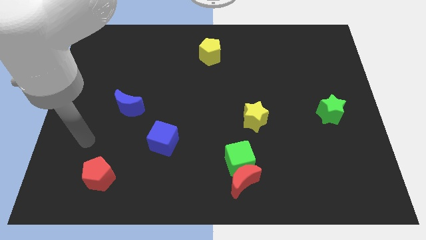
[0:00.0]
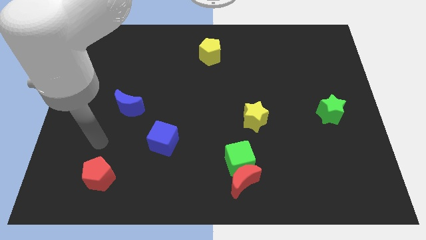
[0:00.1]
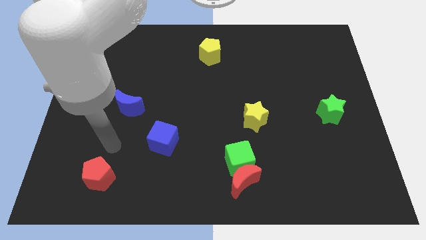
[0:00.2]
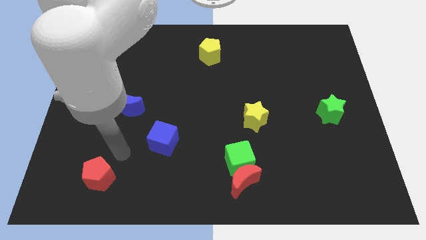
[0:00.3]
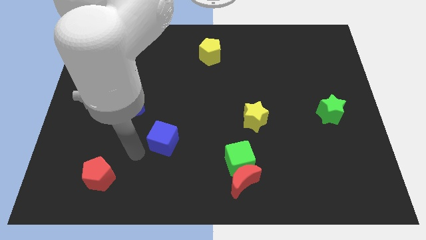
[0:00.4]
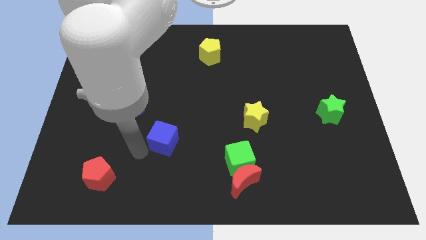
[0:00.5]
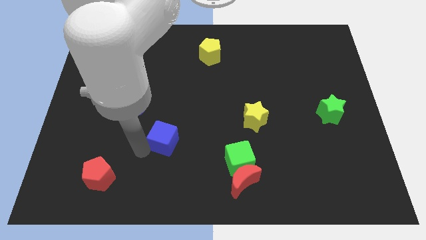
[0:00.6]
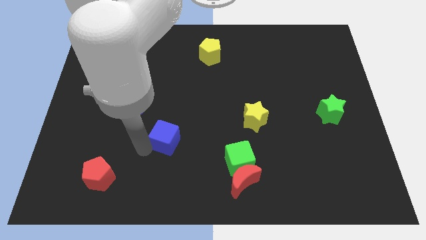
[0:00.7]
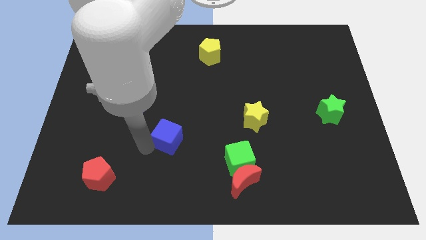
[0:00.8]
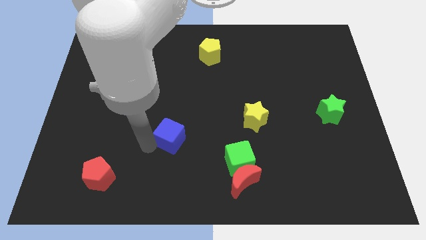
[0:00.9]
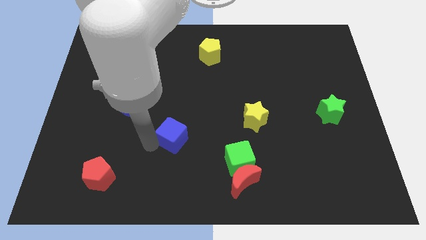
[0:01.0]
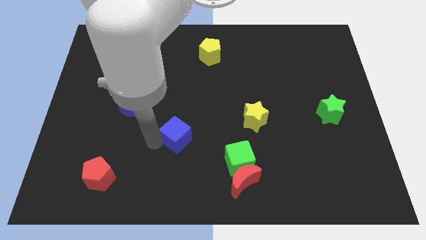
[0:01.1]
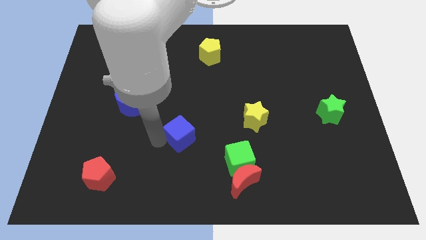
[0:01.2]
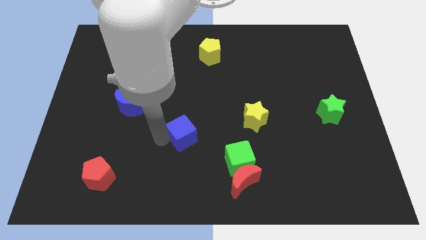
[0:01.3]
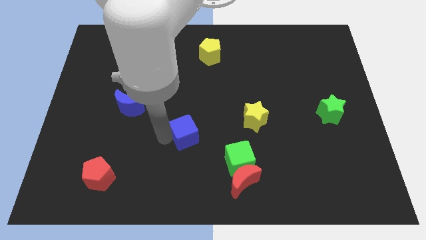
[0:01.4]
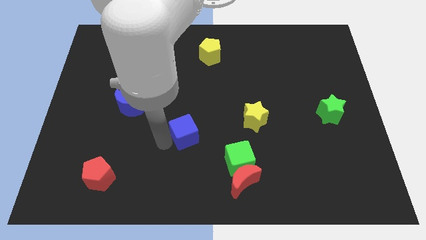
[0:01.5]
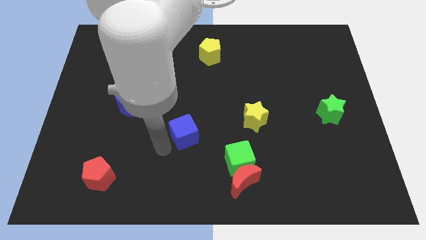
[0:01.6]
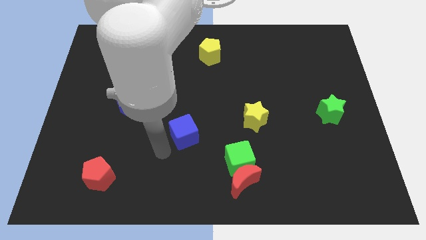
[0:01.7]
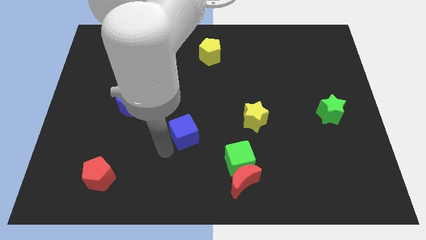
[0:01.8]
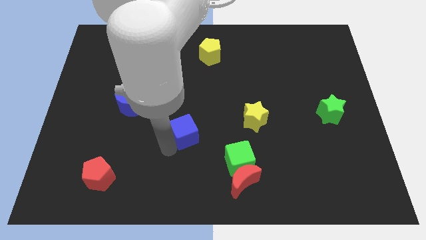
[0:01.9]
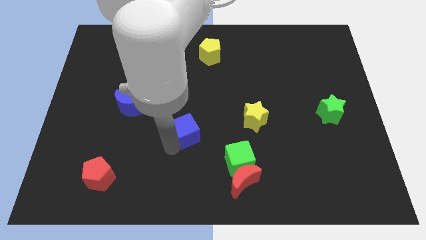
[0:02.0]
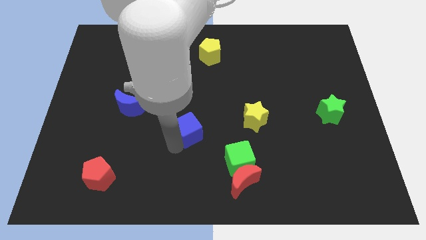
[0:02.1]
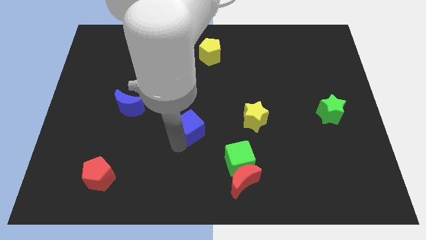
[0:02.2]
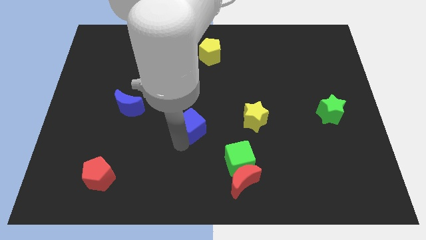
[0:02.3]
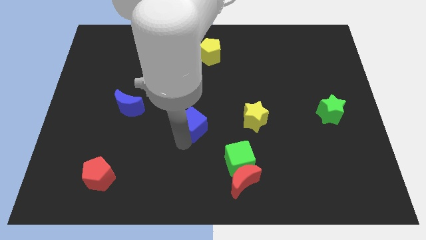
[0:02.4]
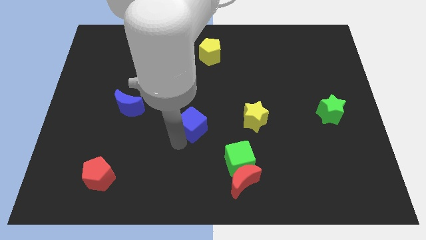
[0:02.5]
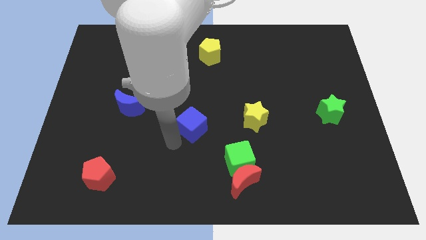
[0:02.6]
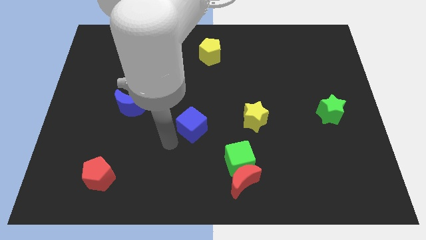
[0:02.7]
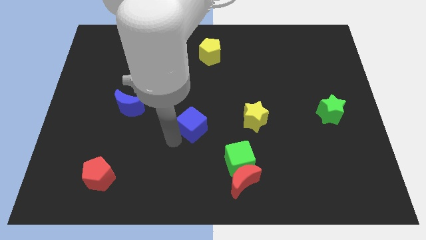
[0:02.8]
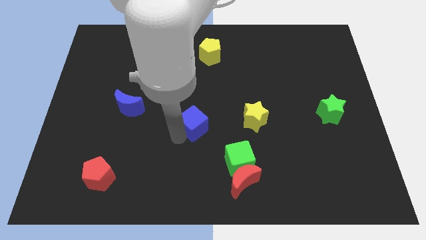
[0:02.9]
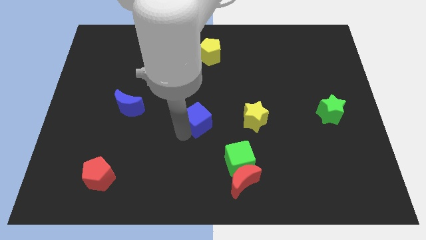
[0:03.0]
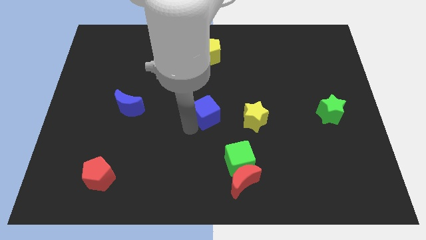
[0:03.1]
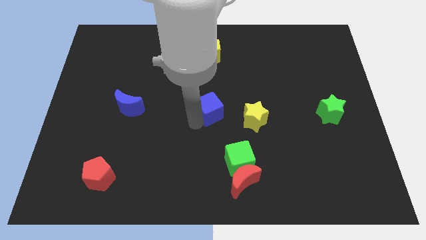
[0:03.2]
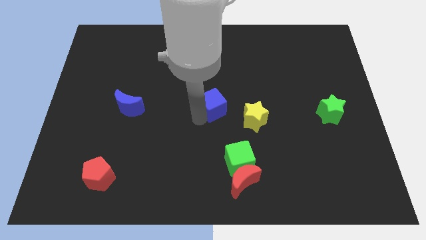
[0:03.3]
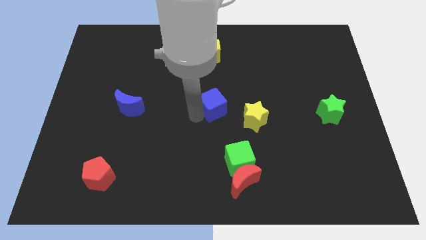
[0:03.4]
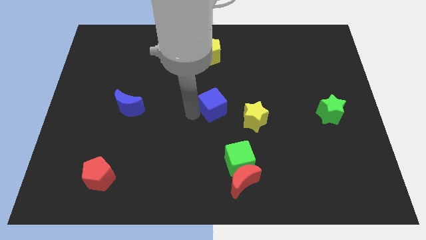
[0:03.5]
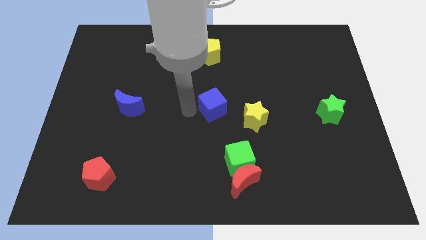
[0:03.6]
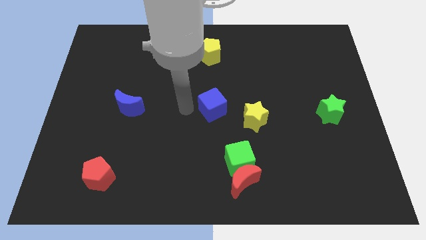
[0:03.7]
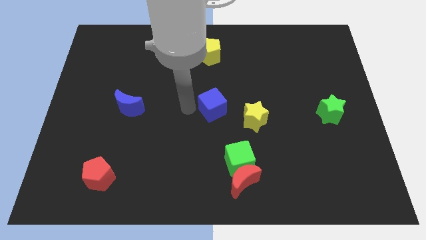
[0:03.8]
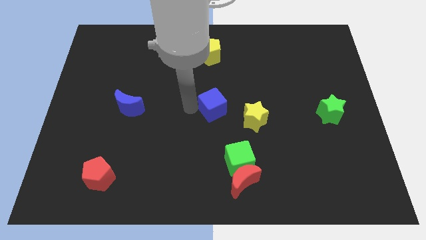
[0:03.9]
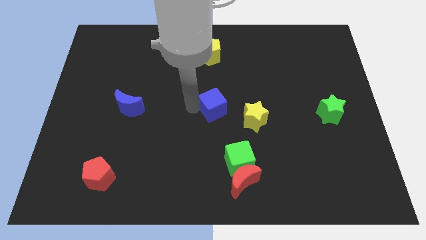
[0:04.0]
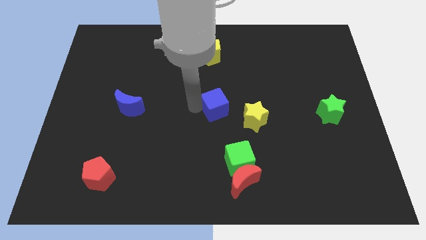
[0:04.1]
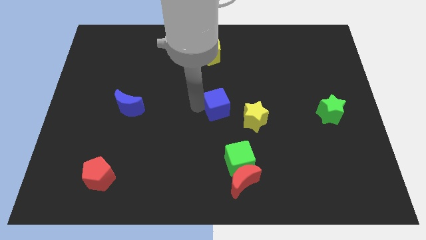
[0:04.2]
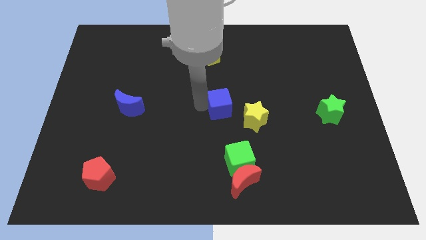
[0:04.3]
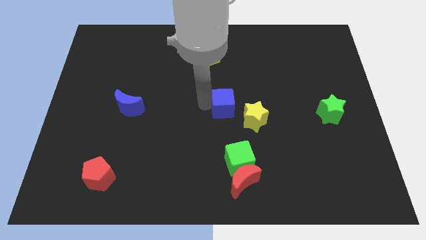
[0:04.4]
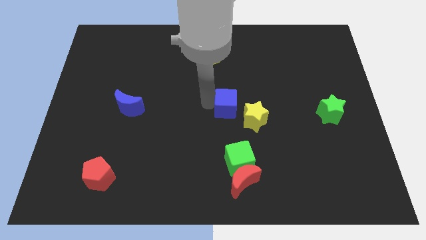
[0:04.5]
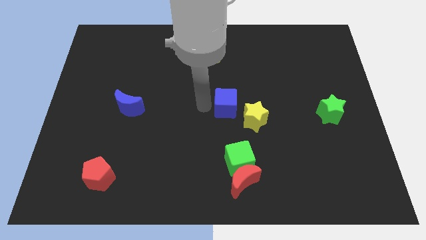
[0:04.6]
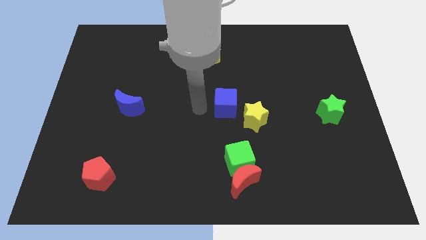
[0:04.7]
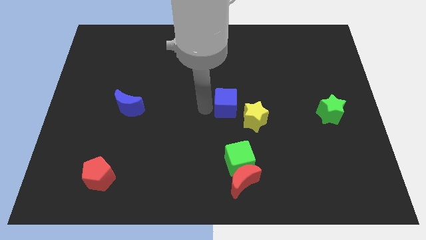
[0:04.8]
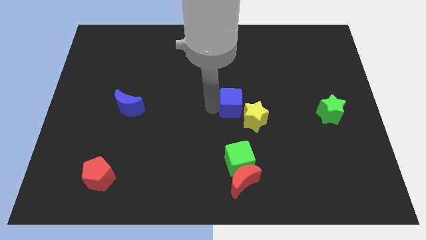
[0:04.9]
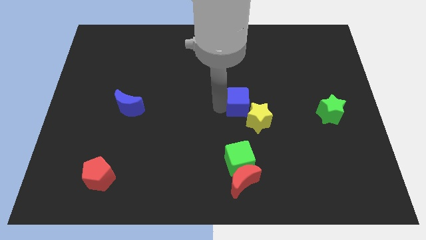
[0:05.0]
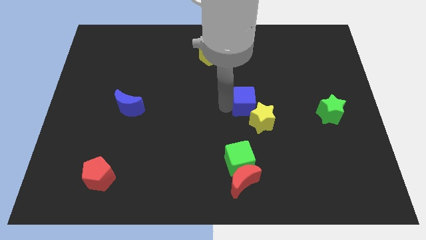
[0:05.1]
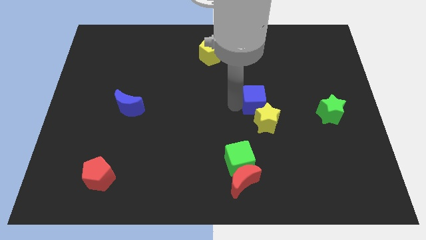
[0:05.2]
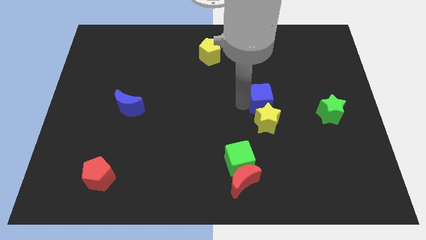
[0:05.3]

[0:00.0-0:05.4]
push the blue cube to the top right side of the yellow star

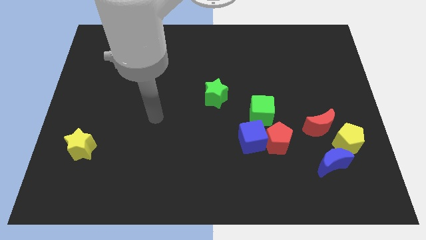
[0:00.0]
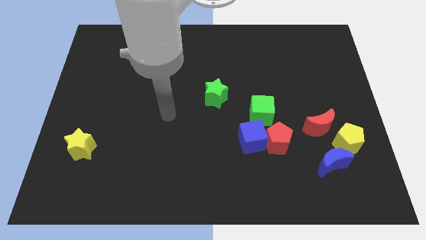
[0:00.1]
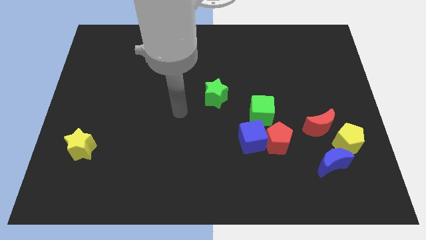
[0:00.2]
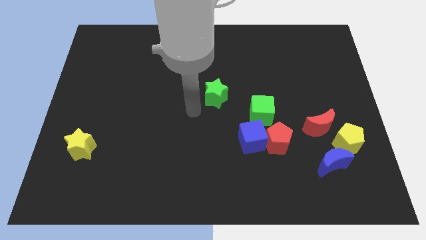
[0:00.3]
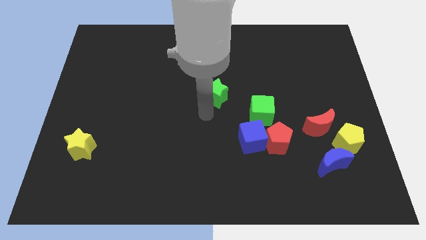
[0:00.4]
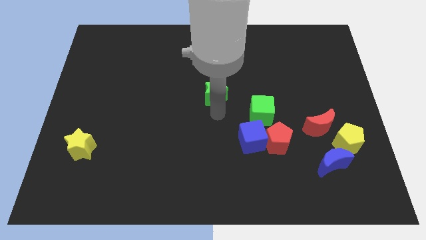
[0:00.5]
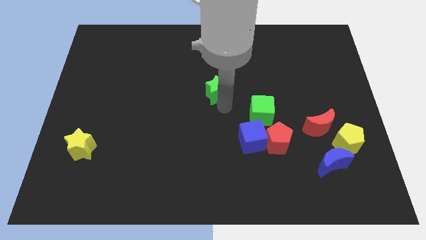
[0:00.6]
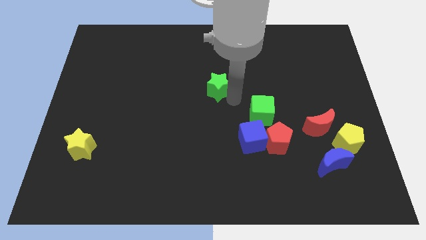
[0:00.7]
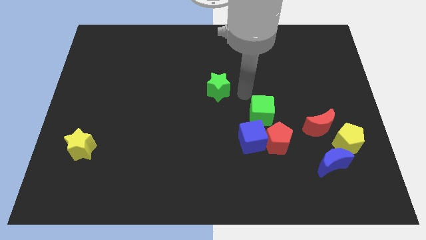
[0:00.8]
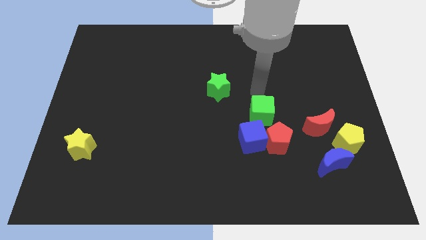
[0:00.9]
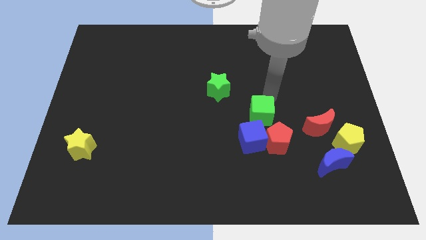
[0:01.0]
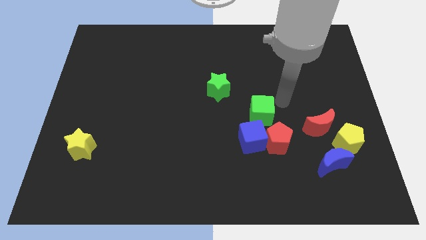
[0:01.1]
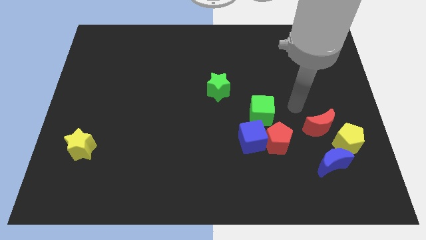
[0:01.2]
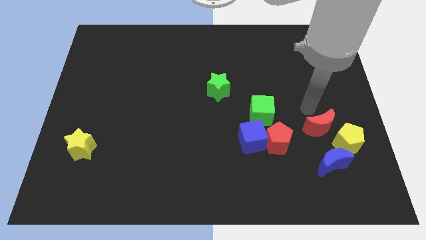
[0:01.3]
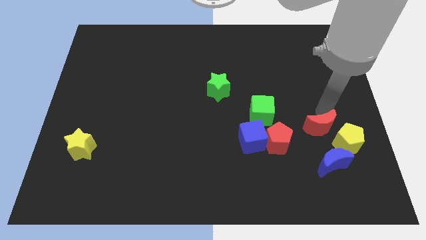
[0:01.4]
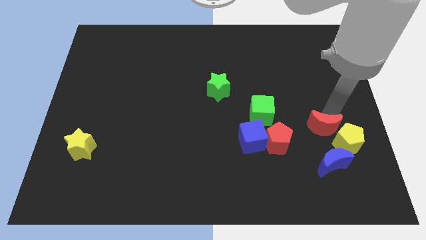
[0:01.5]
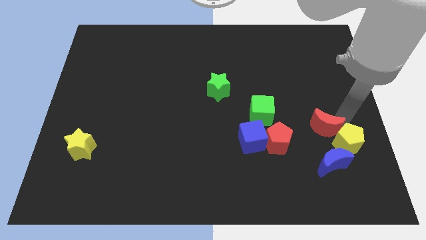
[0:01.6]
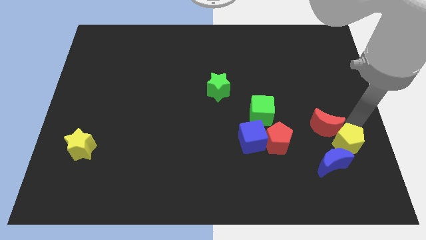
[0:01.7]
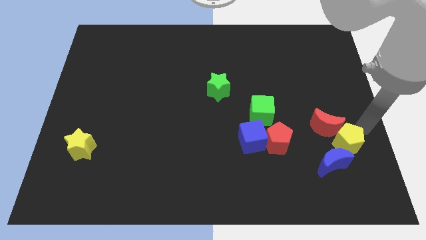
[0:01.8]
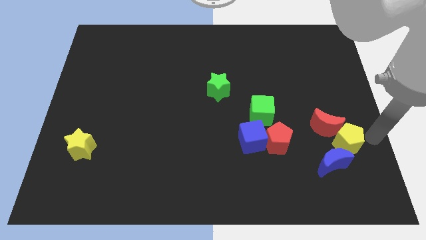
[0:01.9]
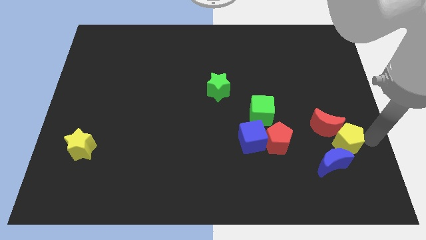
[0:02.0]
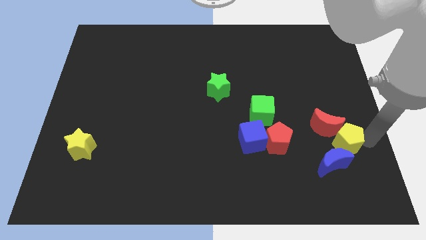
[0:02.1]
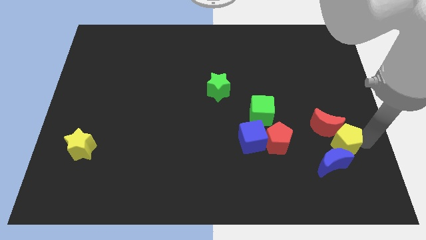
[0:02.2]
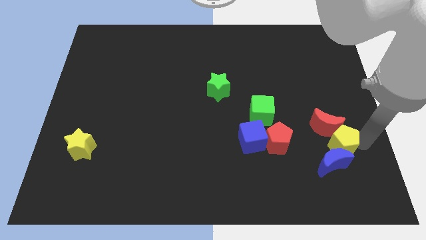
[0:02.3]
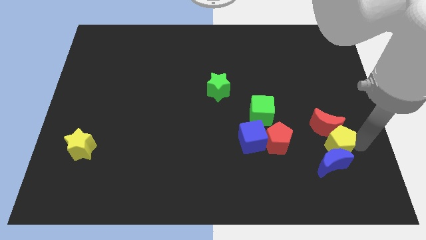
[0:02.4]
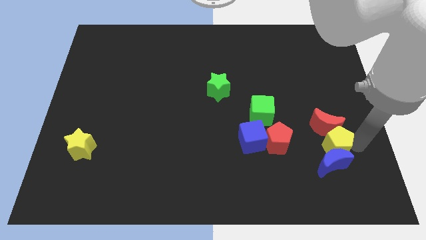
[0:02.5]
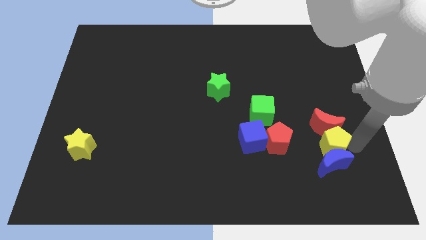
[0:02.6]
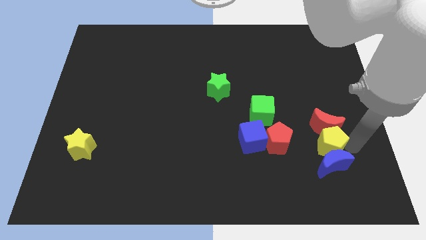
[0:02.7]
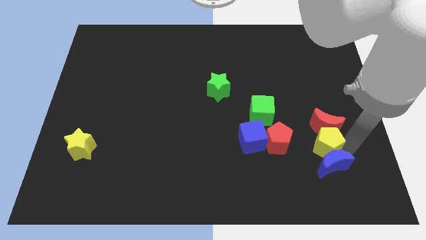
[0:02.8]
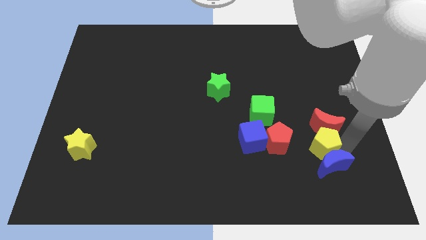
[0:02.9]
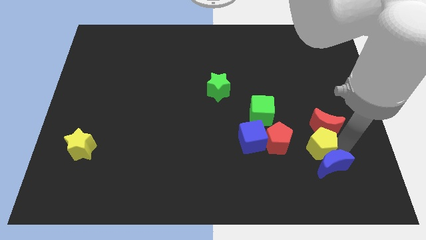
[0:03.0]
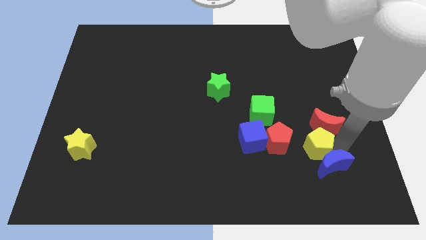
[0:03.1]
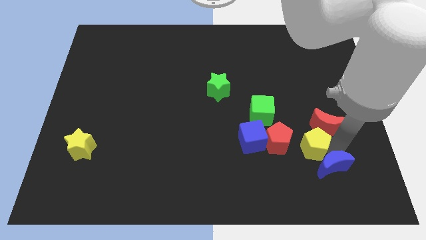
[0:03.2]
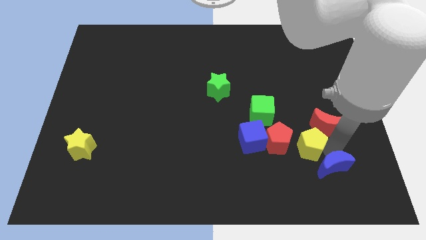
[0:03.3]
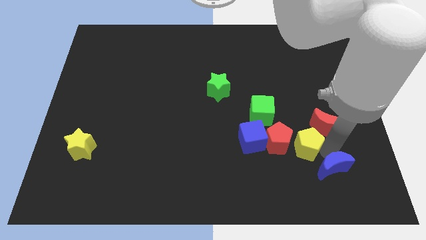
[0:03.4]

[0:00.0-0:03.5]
move the yellow pentagon left of the red moon
